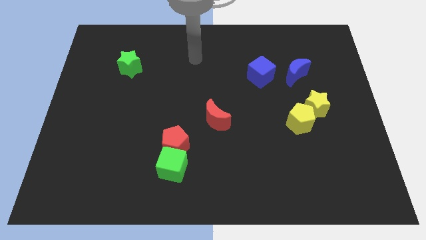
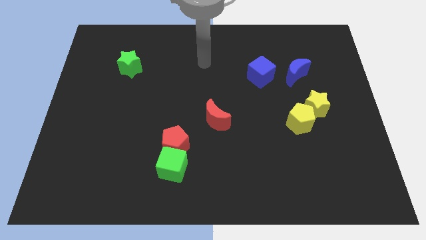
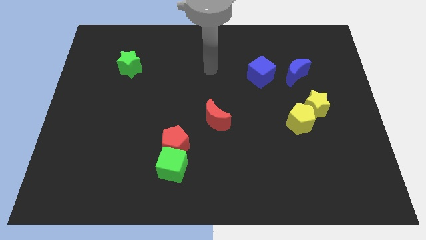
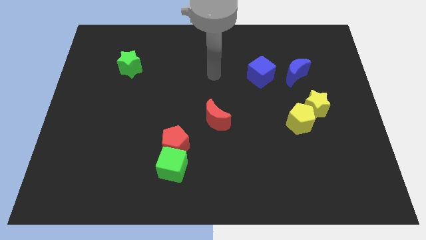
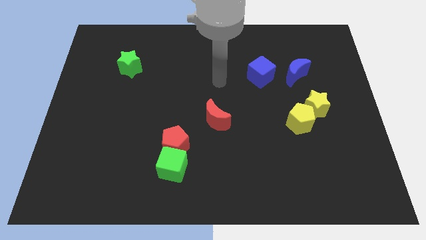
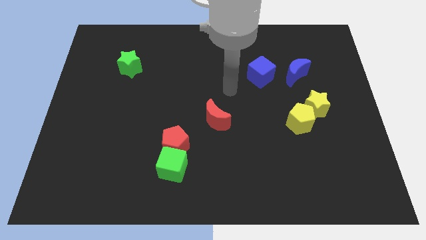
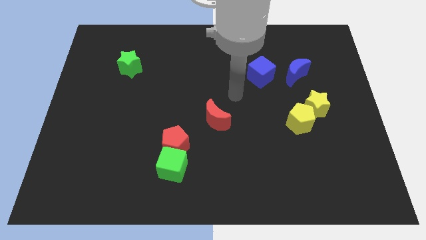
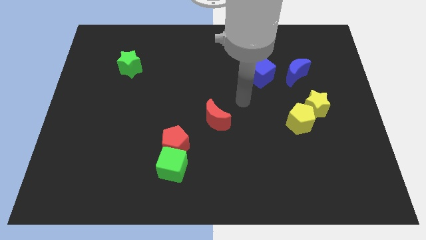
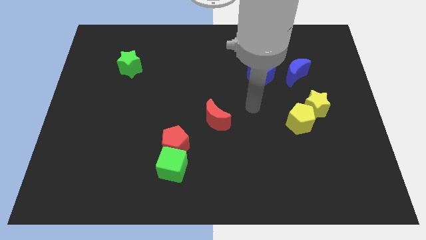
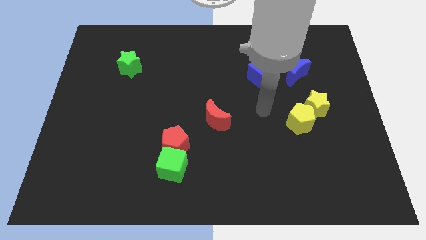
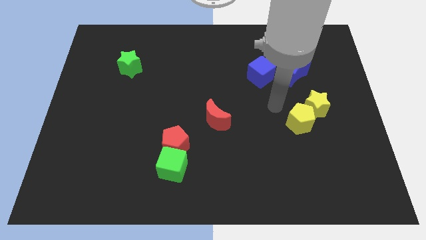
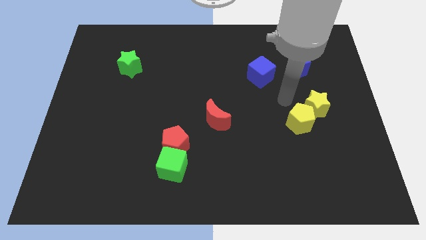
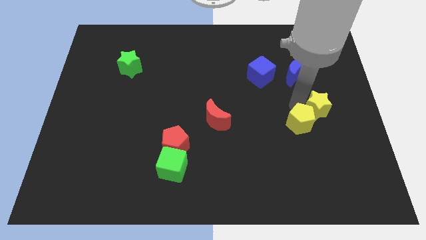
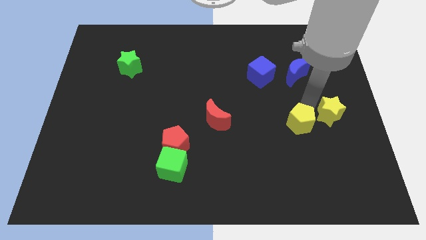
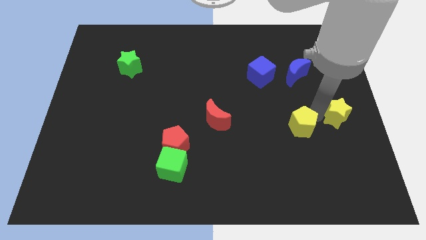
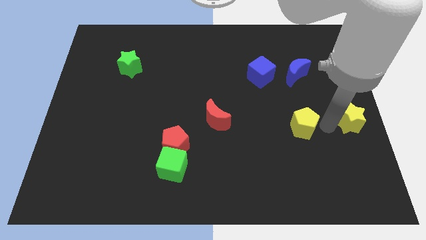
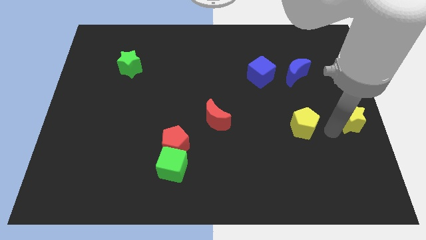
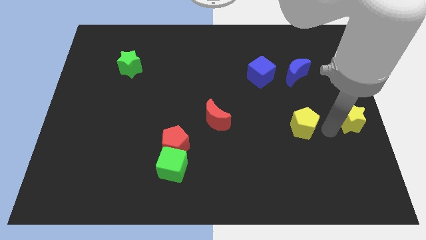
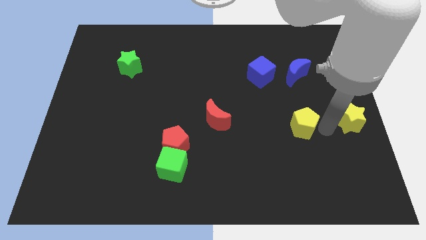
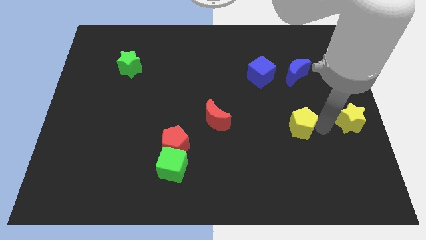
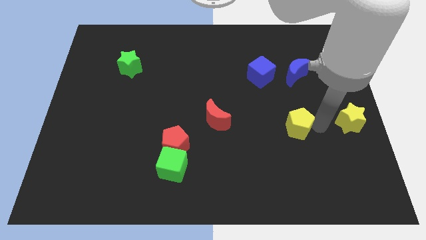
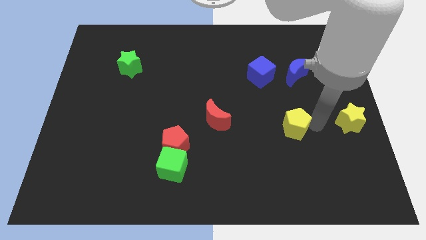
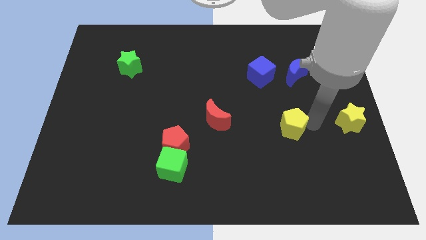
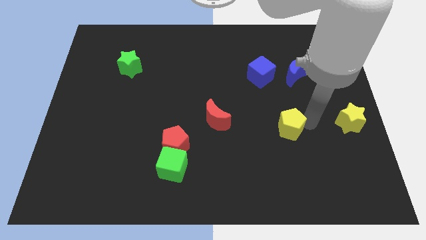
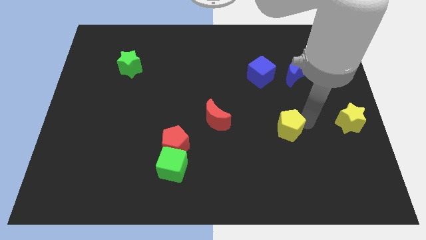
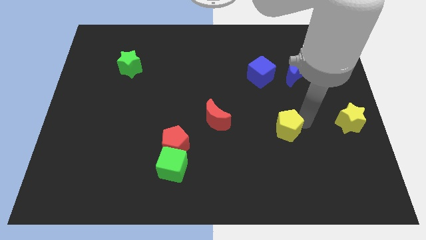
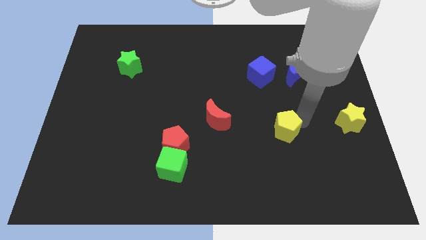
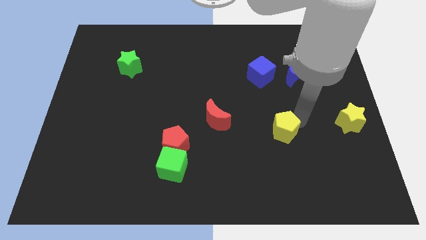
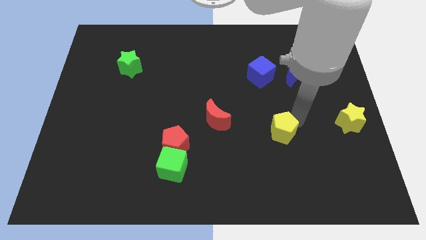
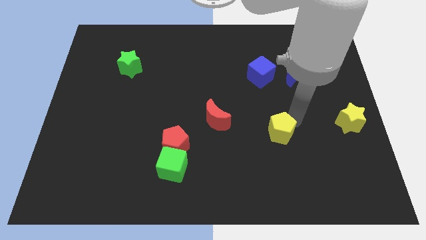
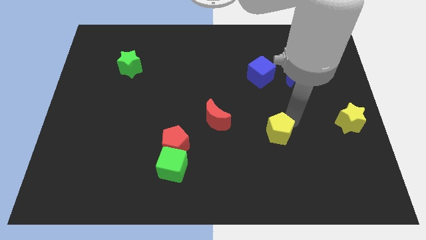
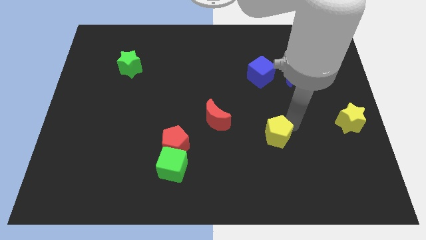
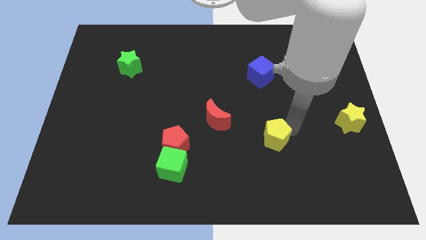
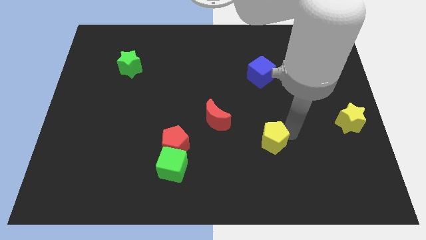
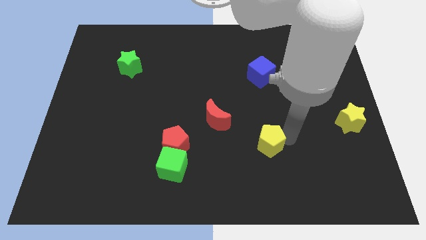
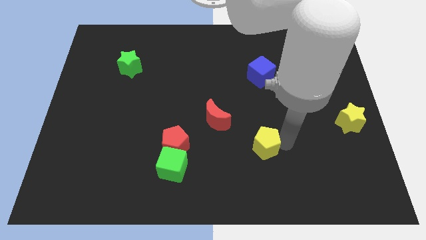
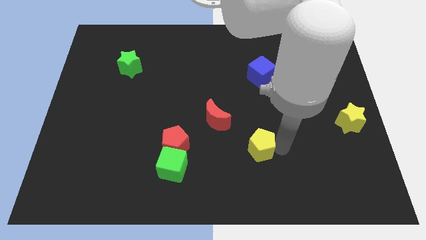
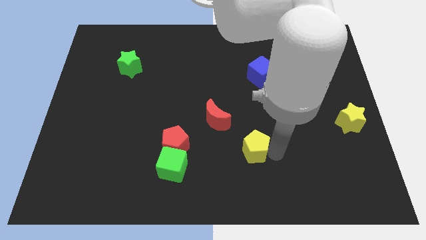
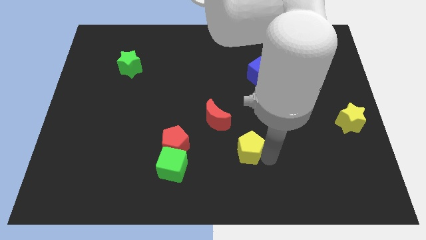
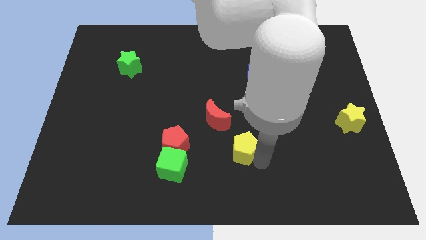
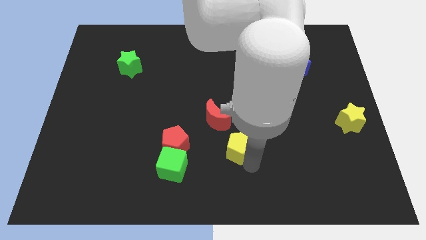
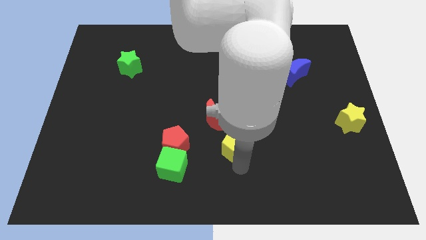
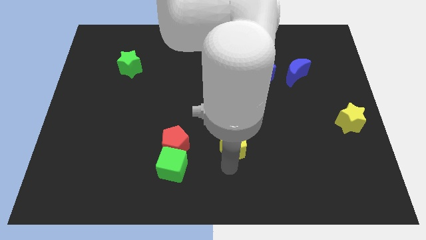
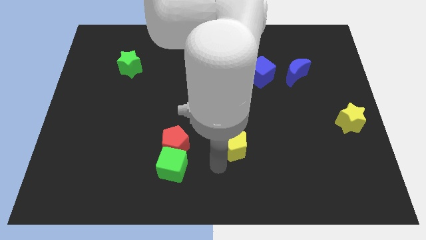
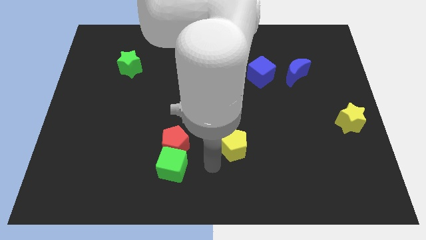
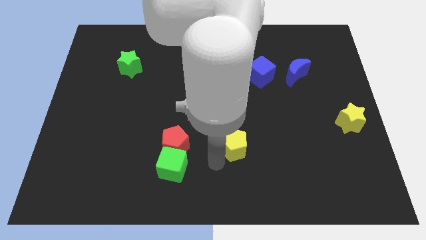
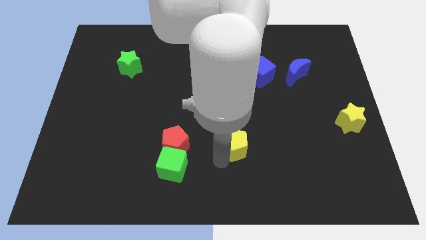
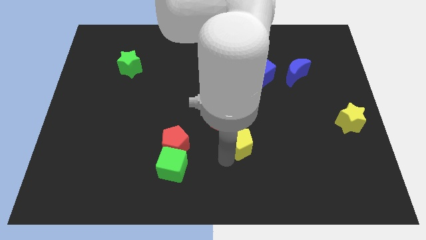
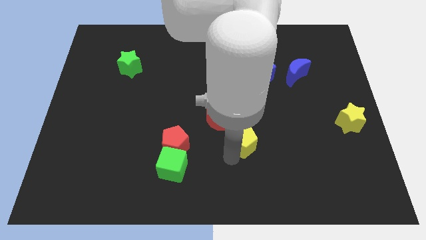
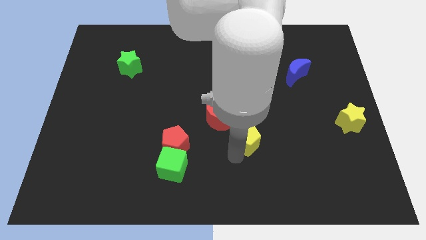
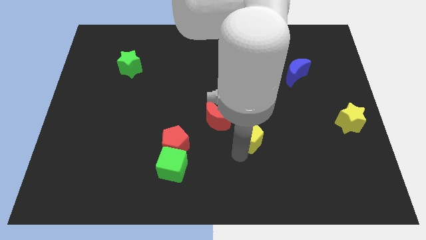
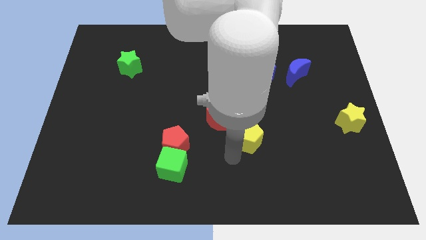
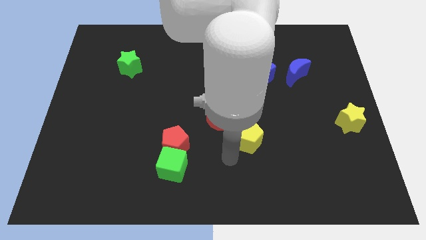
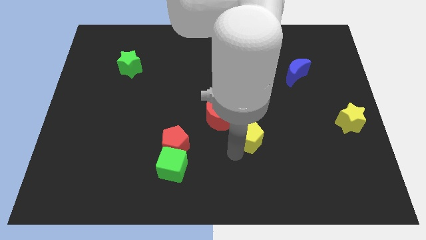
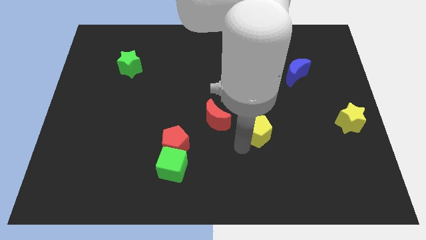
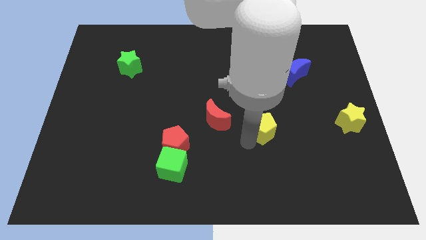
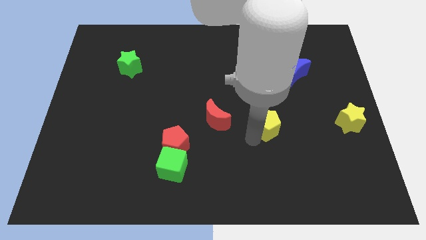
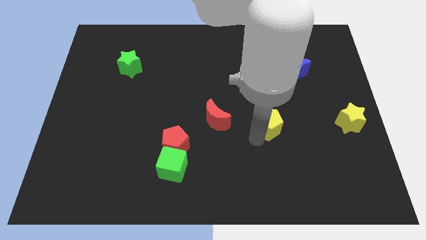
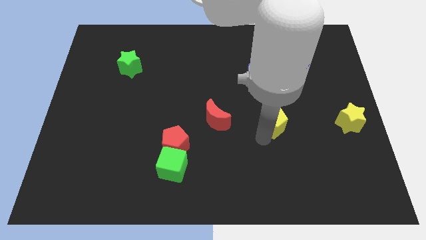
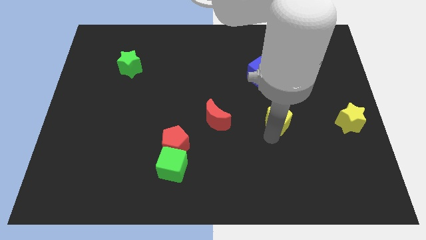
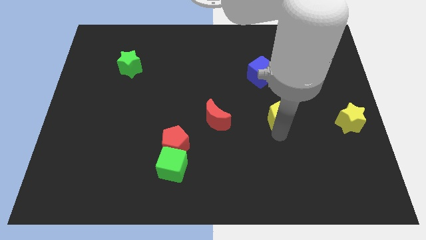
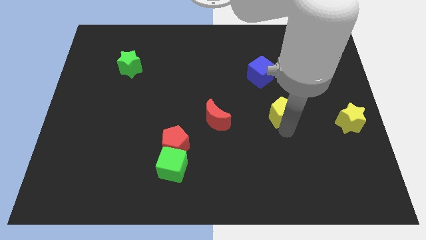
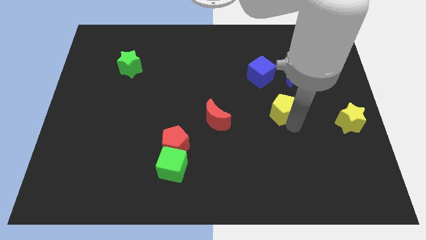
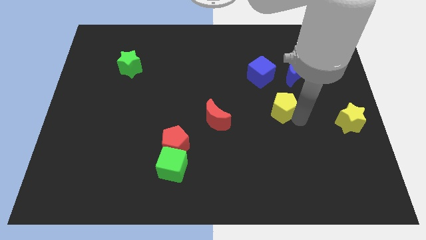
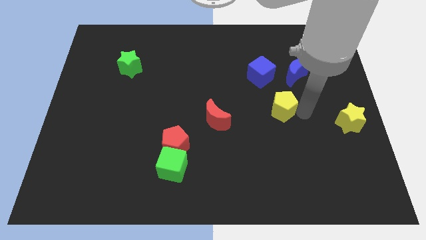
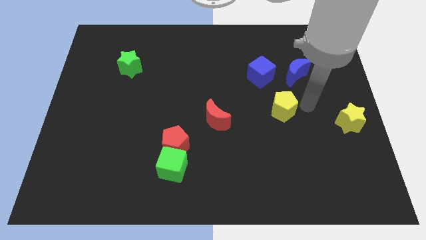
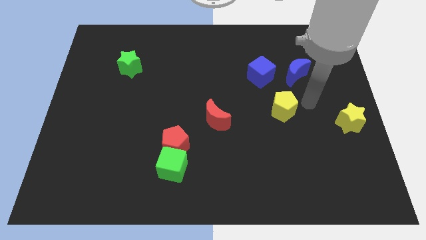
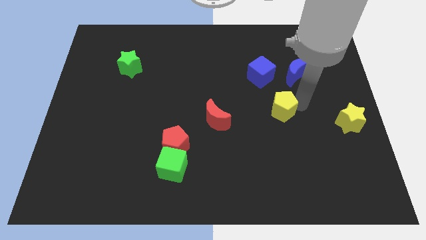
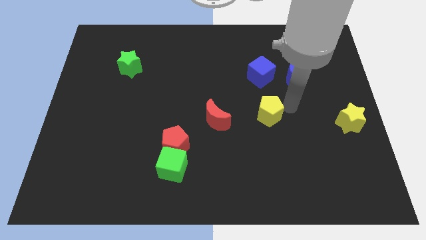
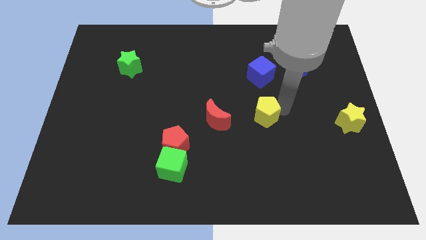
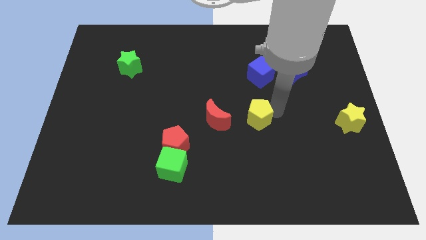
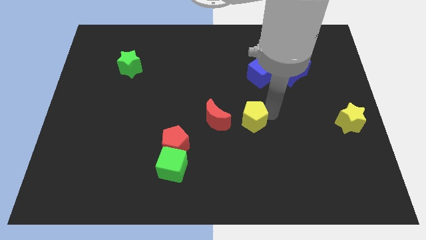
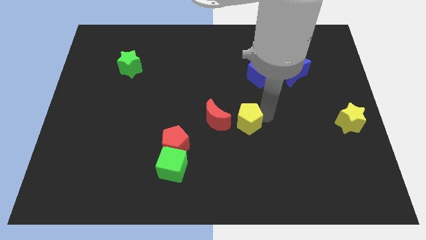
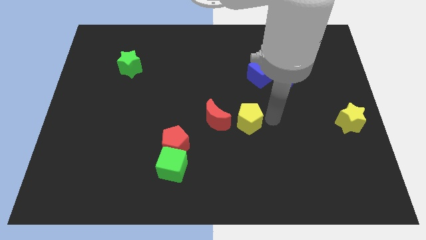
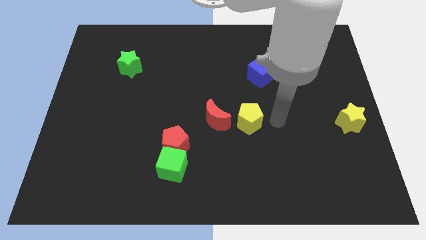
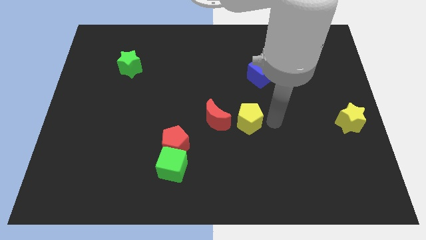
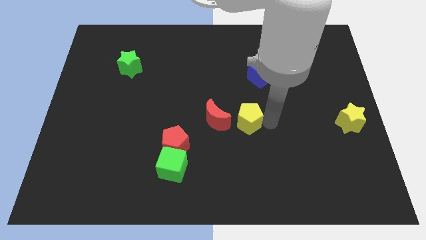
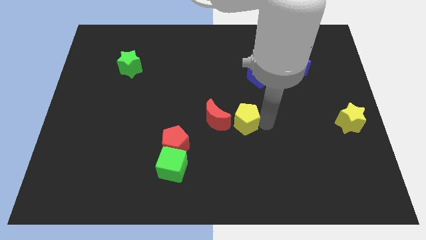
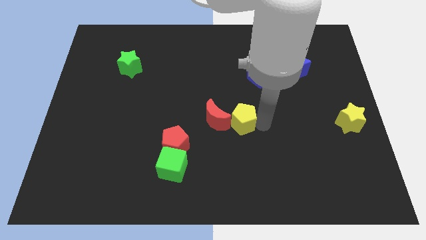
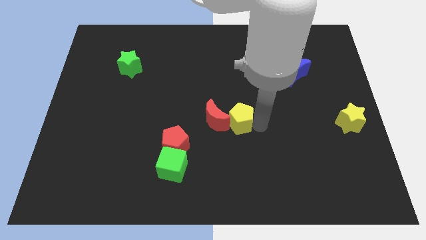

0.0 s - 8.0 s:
put the yellow pentagon close to the red moon
